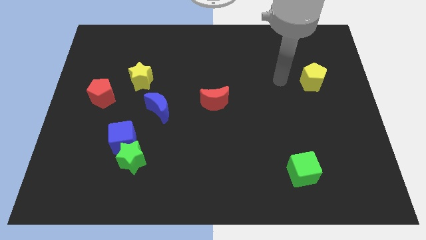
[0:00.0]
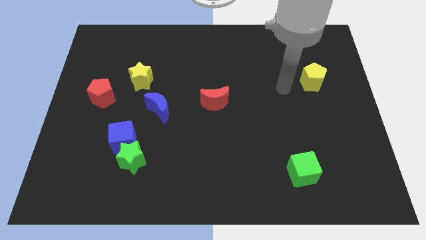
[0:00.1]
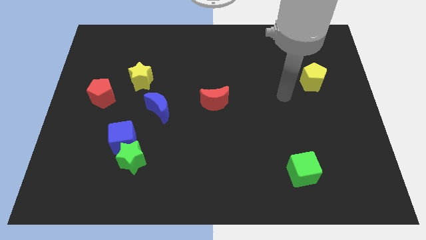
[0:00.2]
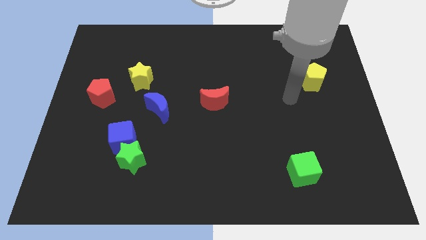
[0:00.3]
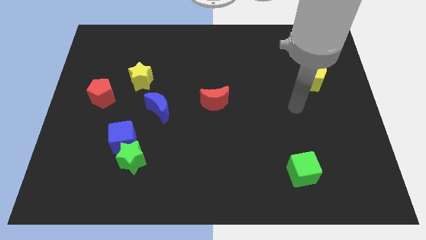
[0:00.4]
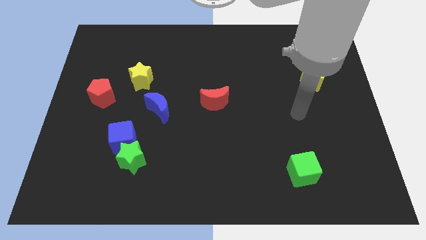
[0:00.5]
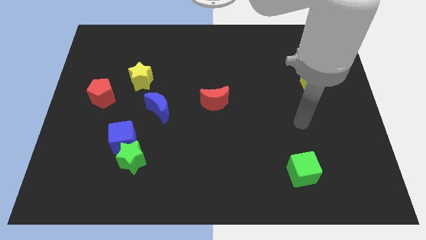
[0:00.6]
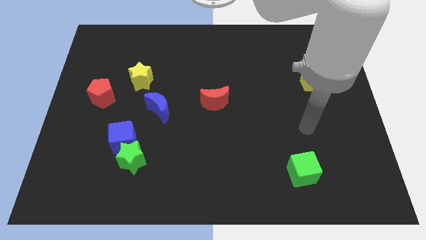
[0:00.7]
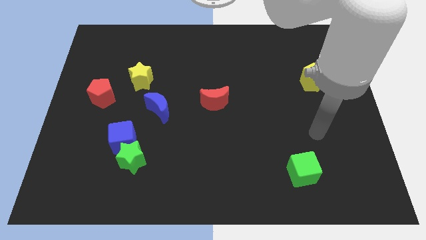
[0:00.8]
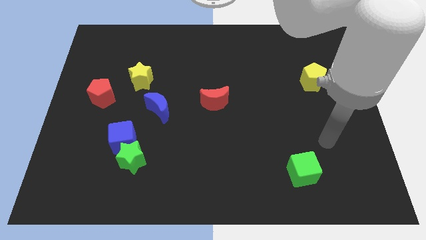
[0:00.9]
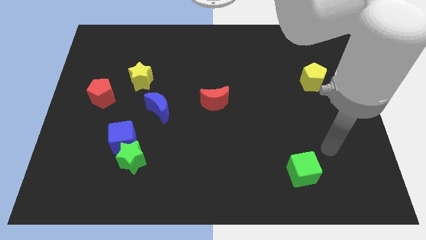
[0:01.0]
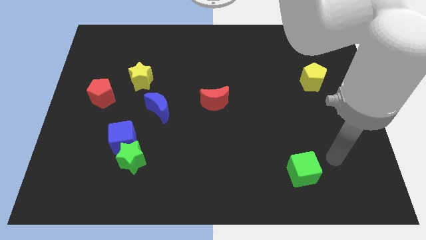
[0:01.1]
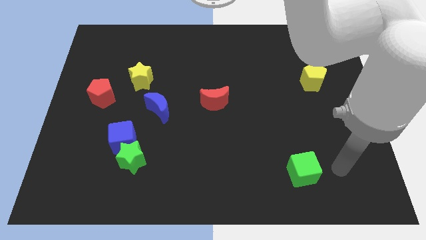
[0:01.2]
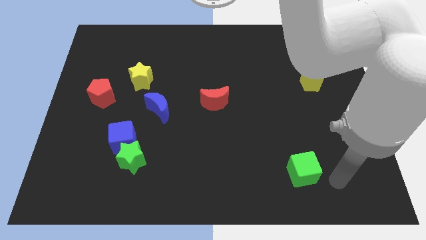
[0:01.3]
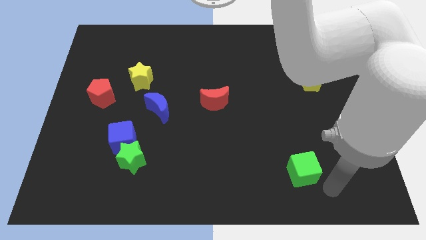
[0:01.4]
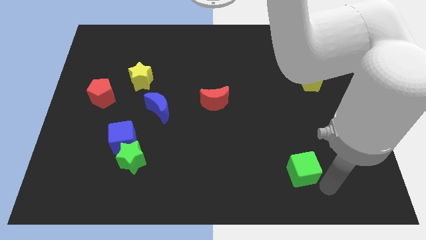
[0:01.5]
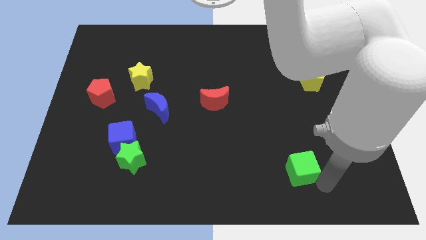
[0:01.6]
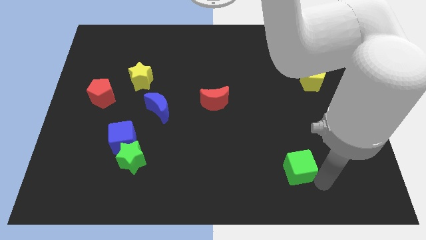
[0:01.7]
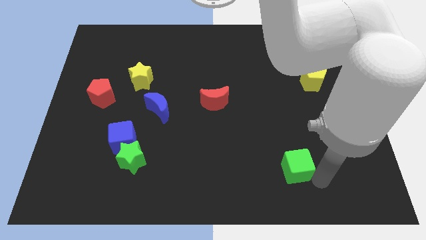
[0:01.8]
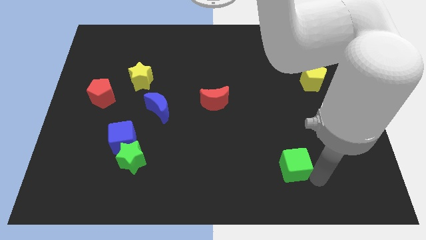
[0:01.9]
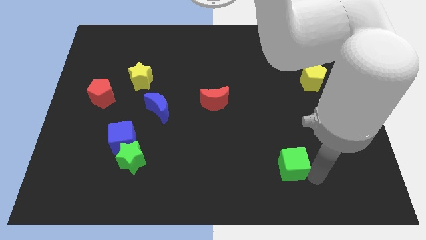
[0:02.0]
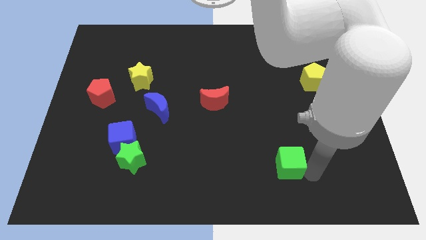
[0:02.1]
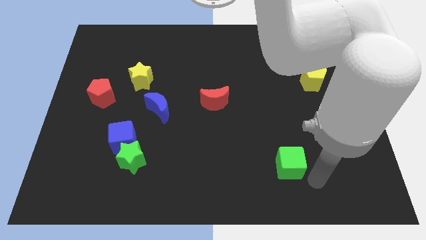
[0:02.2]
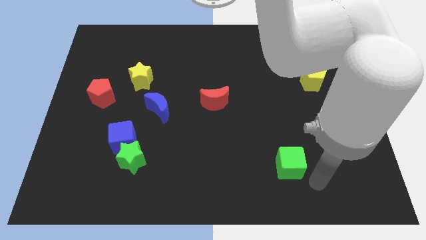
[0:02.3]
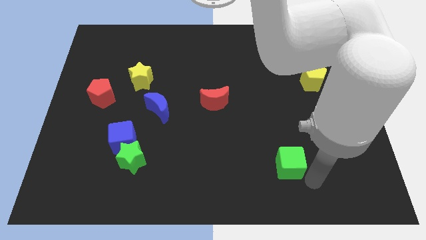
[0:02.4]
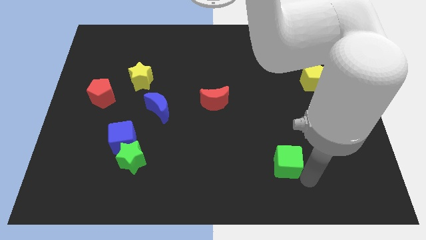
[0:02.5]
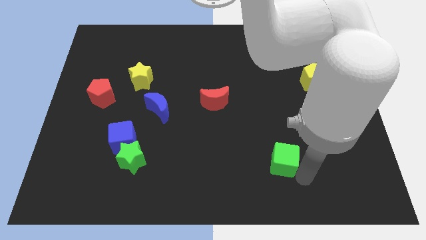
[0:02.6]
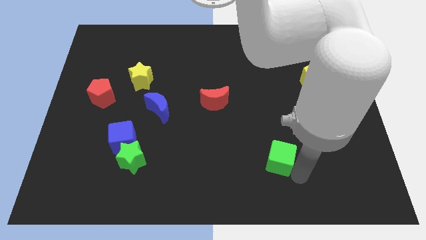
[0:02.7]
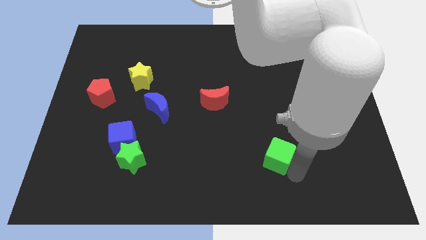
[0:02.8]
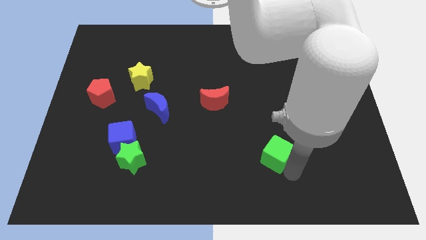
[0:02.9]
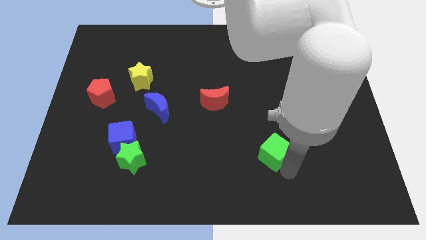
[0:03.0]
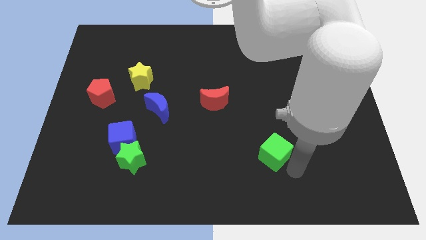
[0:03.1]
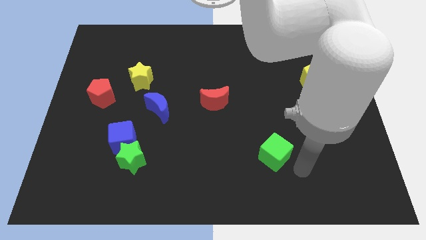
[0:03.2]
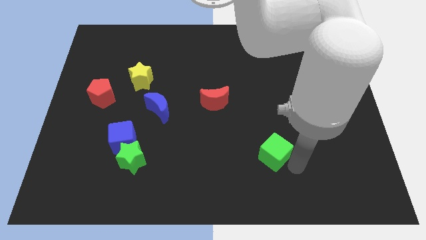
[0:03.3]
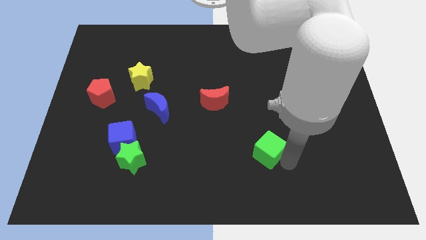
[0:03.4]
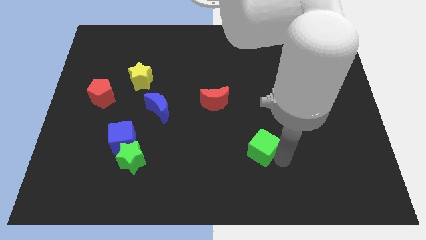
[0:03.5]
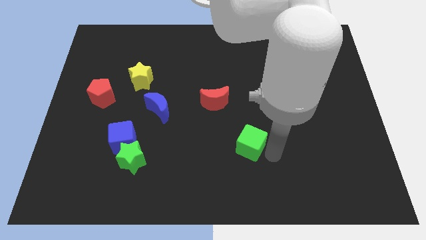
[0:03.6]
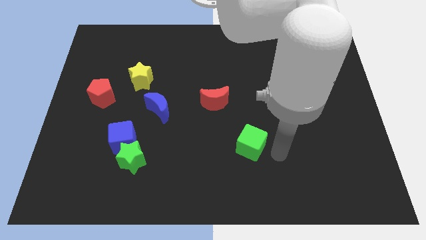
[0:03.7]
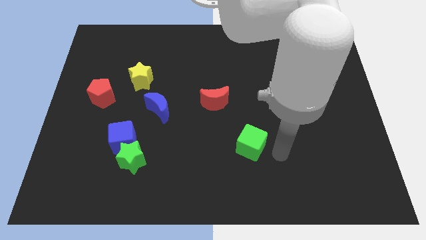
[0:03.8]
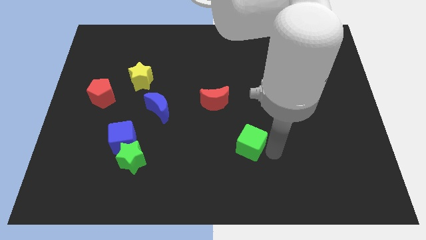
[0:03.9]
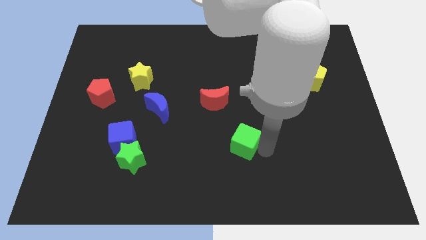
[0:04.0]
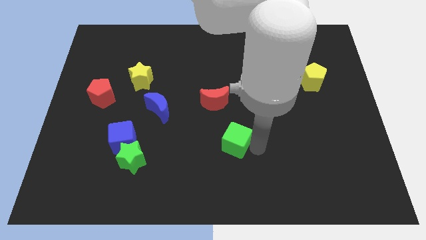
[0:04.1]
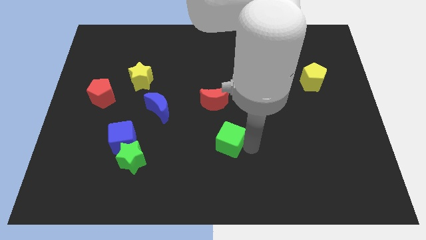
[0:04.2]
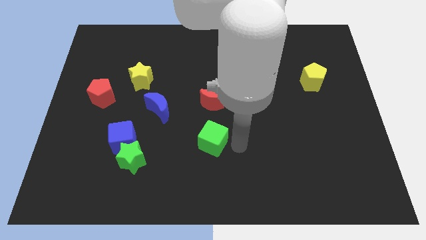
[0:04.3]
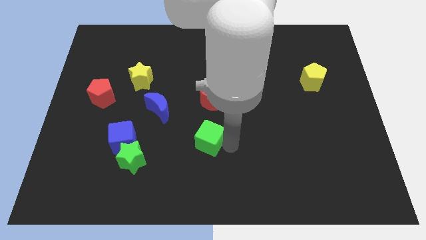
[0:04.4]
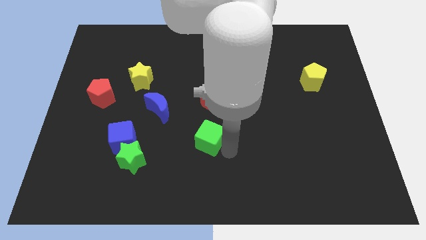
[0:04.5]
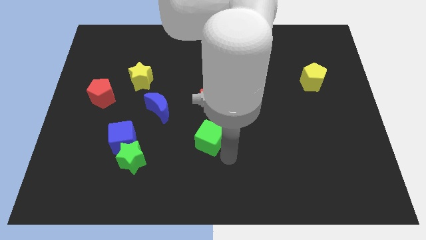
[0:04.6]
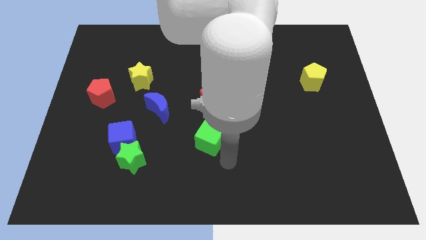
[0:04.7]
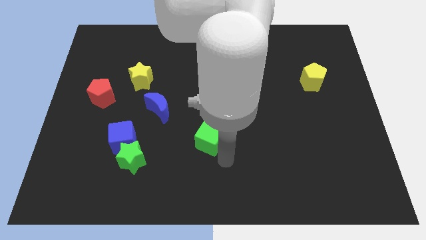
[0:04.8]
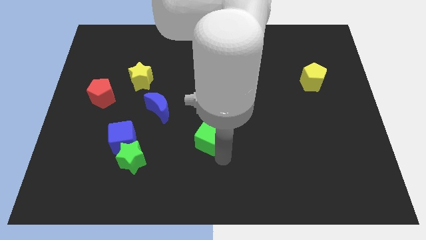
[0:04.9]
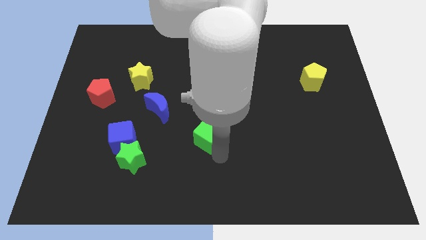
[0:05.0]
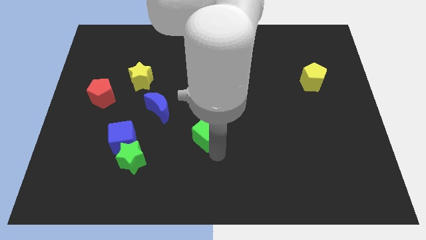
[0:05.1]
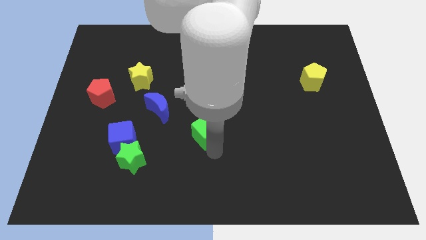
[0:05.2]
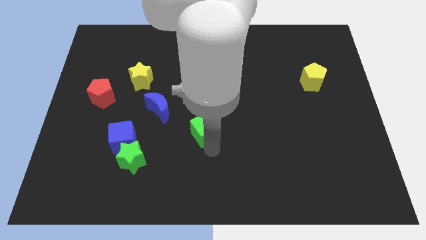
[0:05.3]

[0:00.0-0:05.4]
put the green cube diagonally down and to the left of the red moon

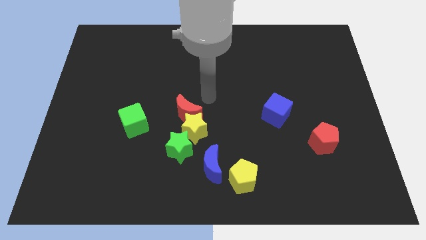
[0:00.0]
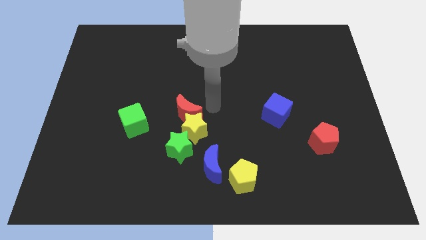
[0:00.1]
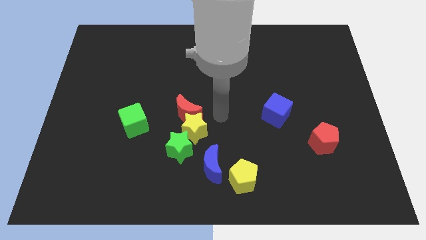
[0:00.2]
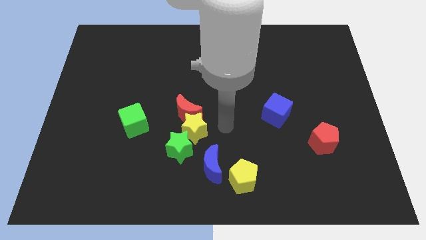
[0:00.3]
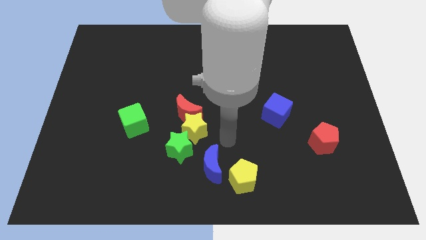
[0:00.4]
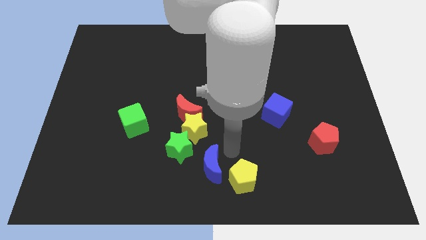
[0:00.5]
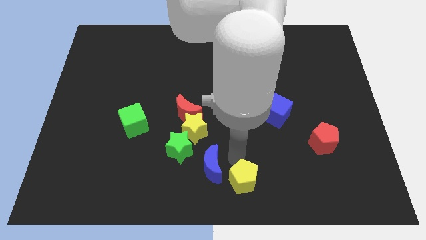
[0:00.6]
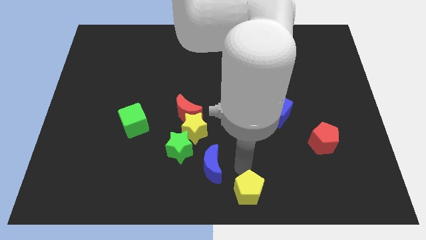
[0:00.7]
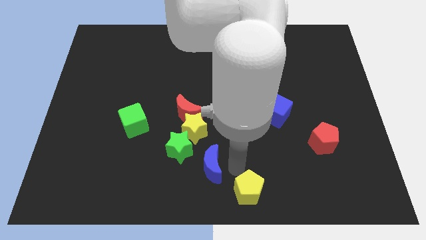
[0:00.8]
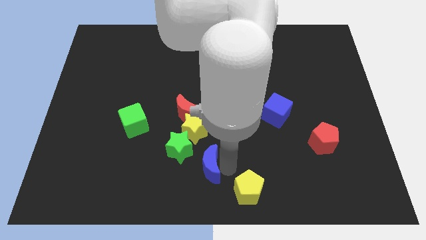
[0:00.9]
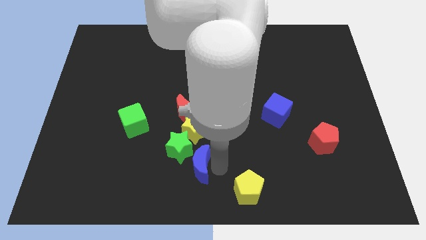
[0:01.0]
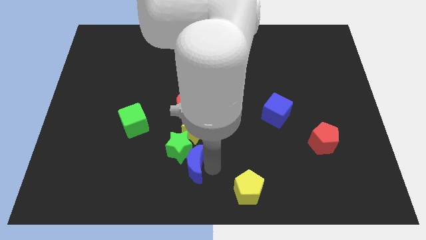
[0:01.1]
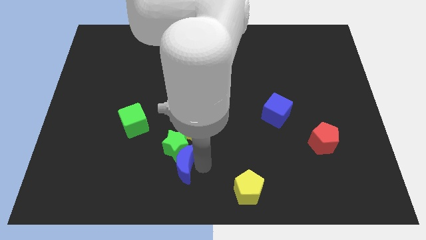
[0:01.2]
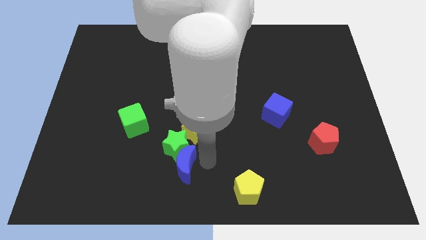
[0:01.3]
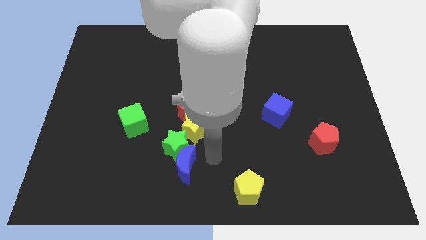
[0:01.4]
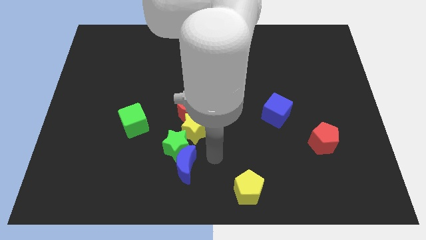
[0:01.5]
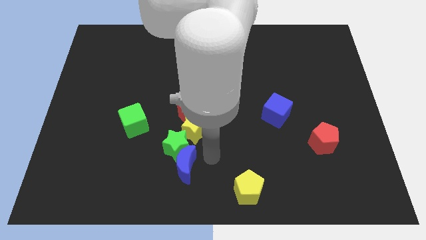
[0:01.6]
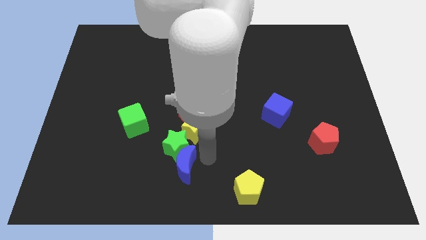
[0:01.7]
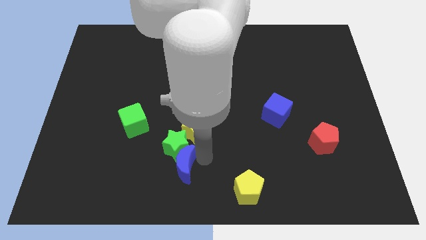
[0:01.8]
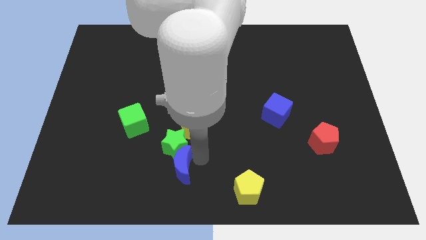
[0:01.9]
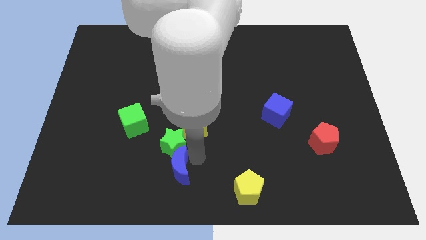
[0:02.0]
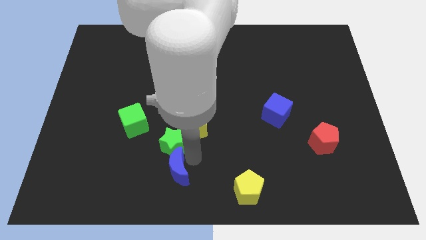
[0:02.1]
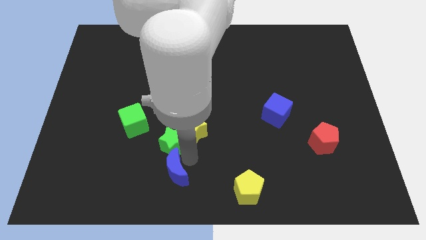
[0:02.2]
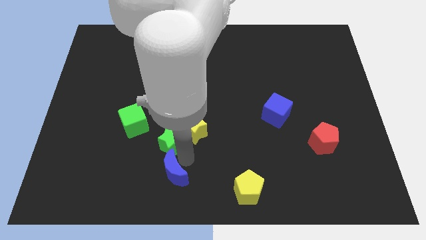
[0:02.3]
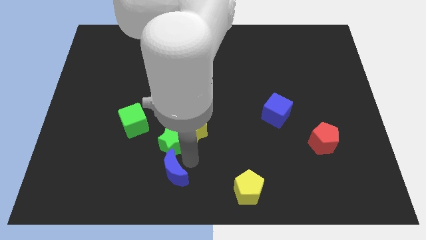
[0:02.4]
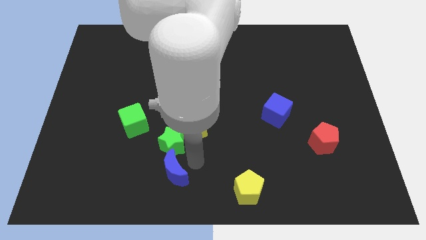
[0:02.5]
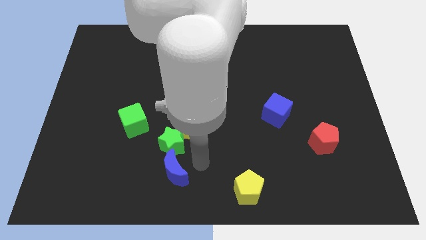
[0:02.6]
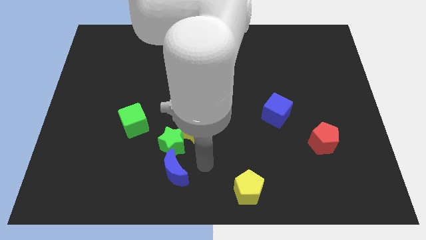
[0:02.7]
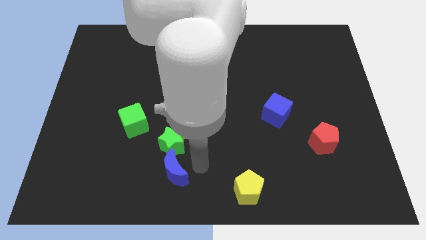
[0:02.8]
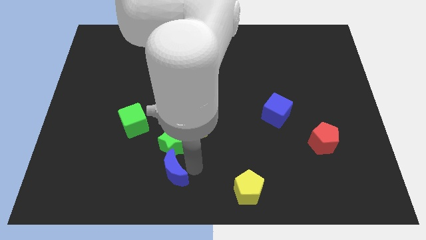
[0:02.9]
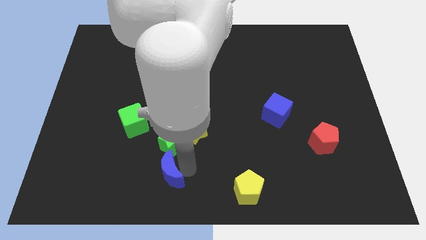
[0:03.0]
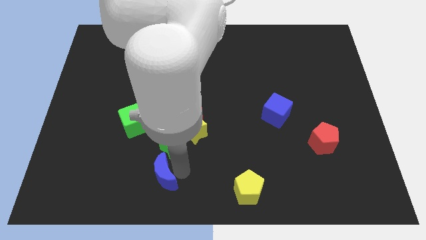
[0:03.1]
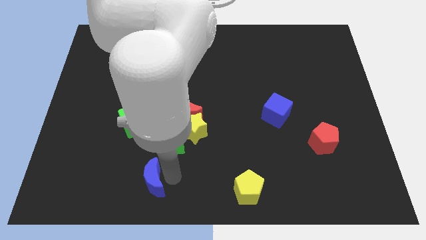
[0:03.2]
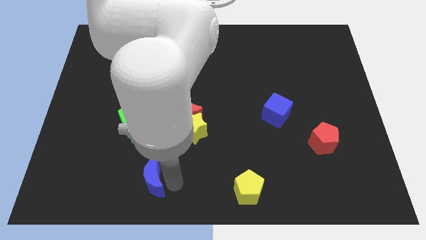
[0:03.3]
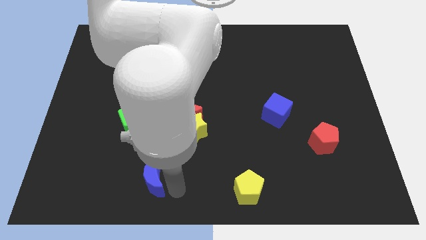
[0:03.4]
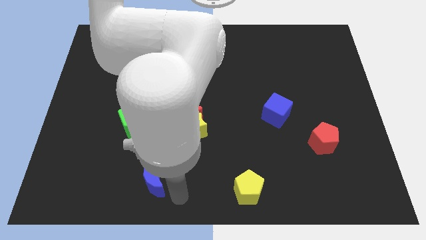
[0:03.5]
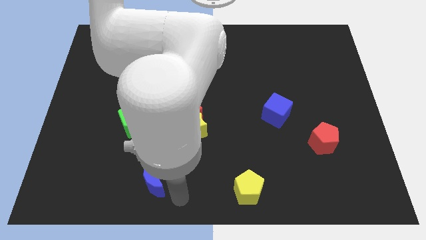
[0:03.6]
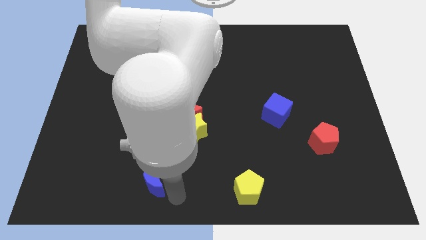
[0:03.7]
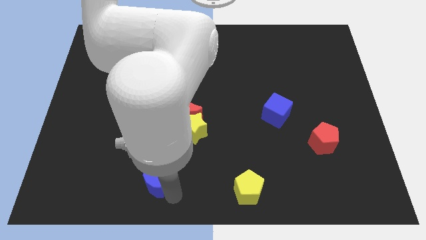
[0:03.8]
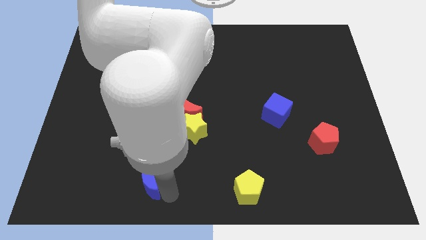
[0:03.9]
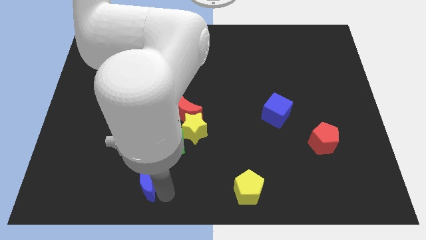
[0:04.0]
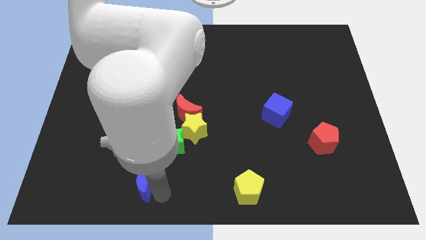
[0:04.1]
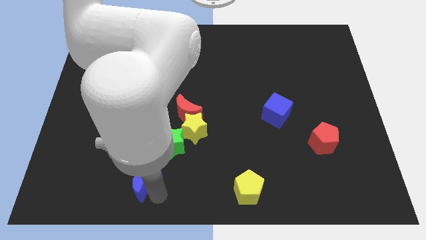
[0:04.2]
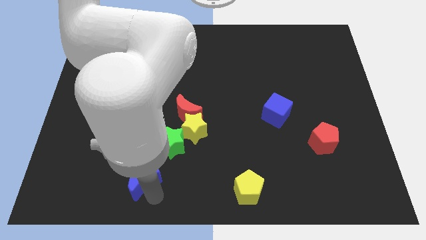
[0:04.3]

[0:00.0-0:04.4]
move the blue moon to the bottom of the green cube
